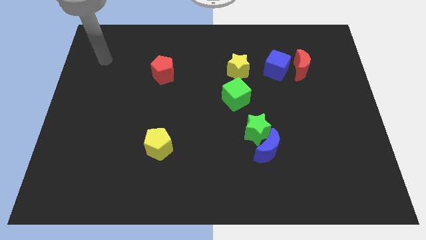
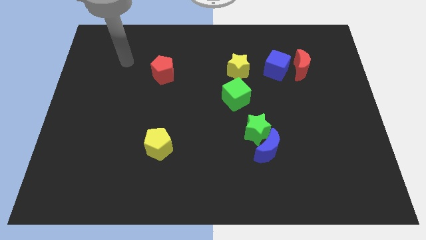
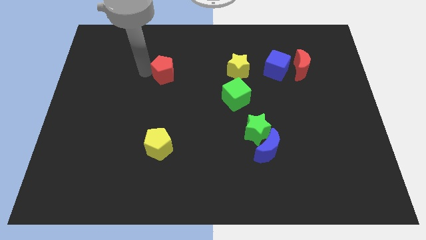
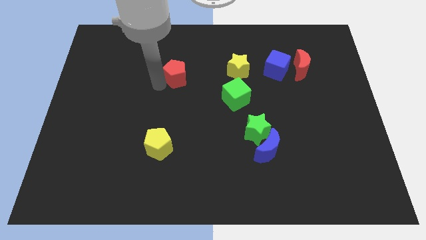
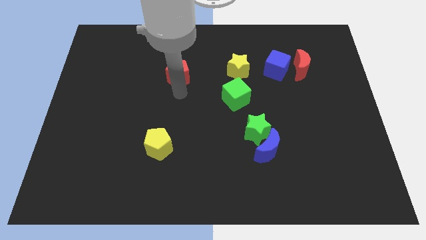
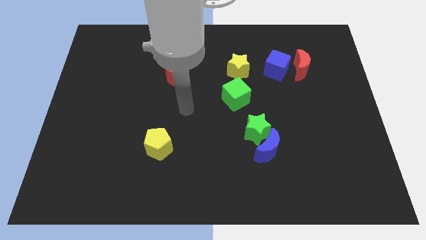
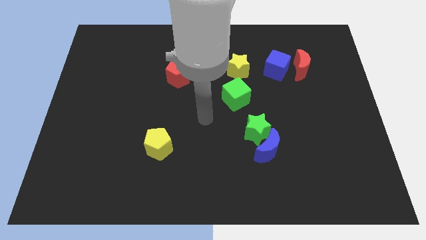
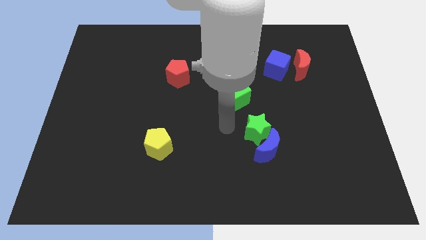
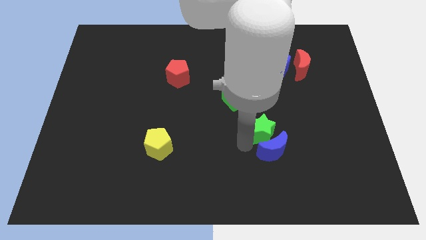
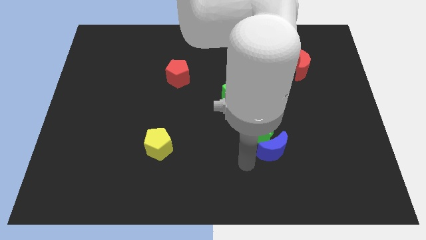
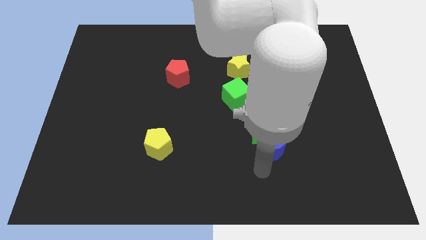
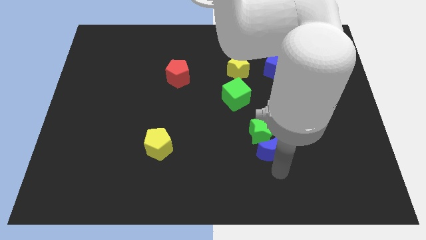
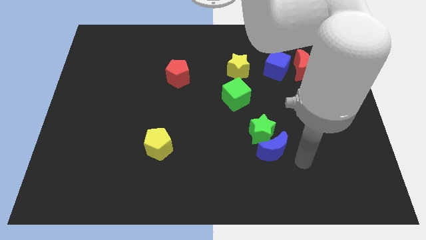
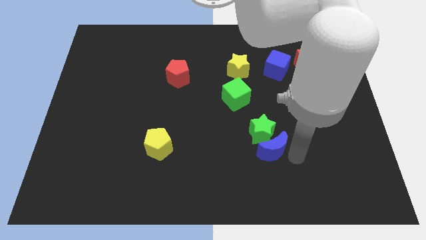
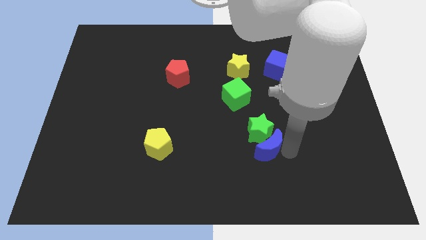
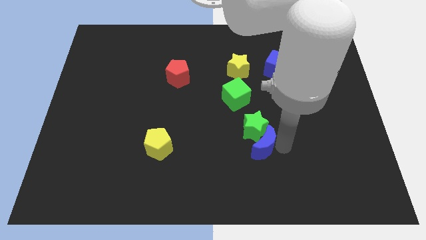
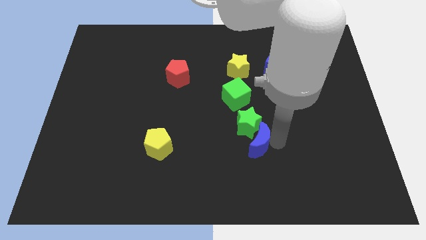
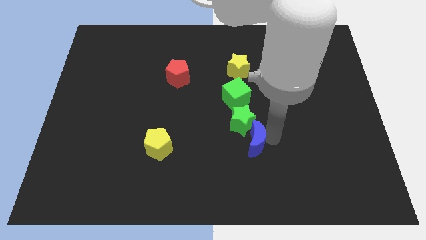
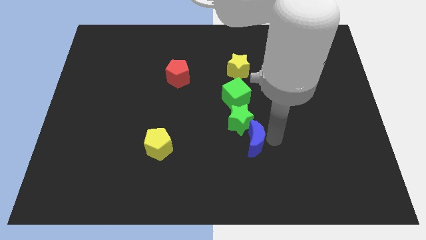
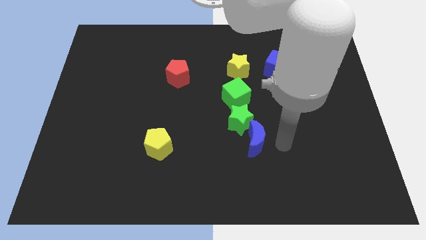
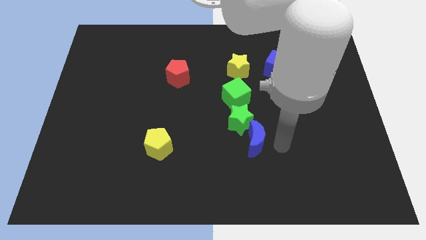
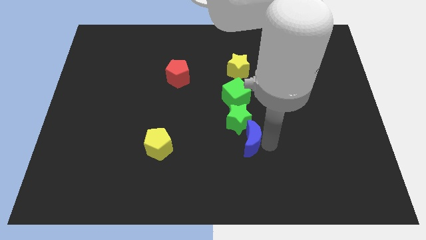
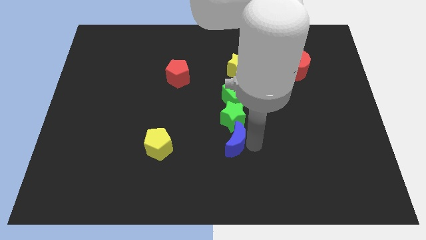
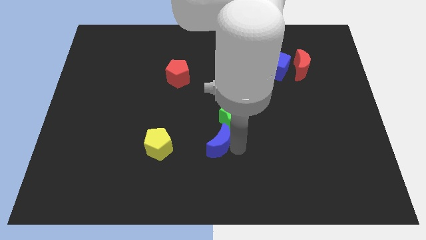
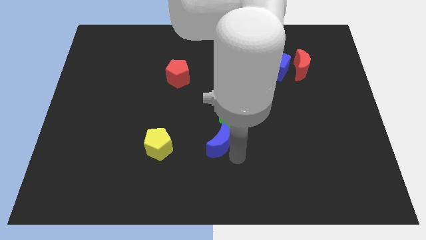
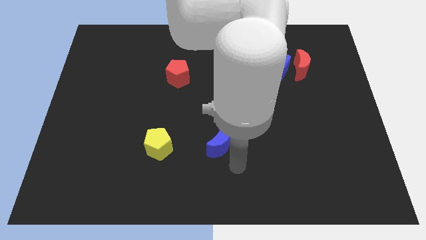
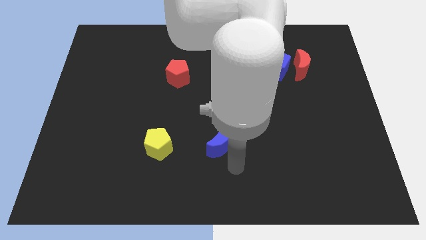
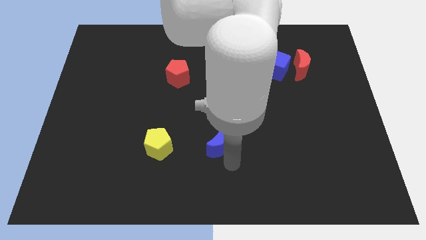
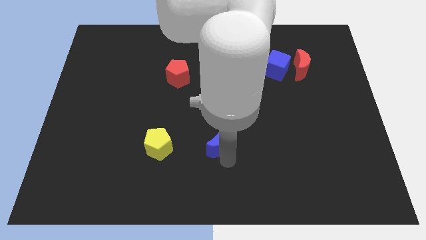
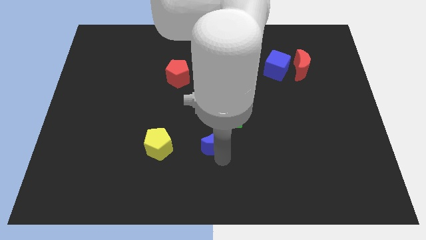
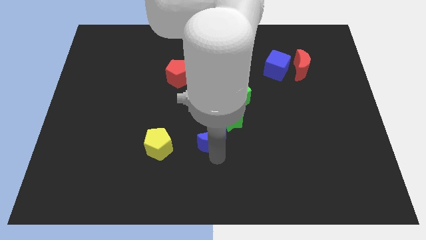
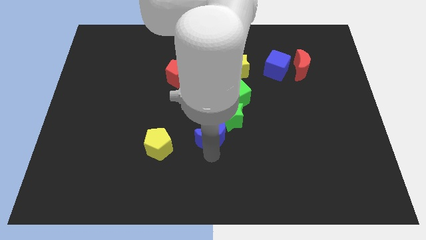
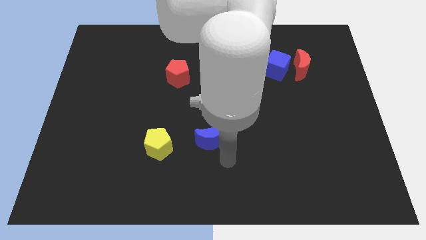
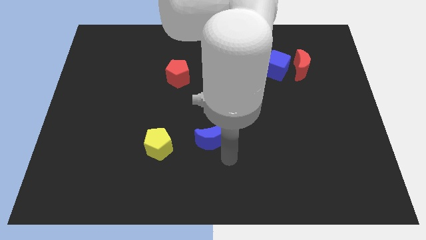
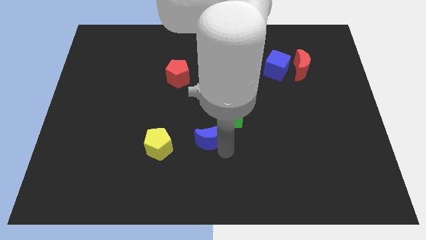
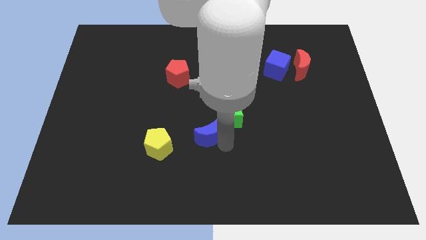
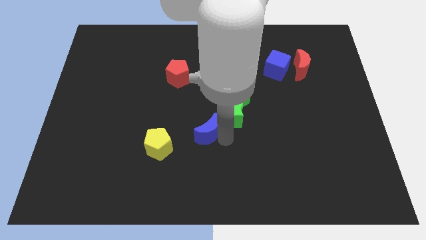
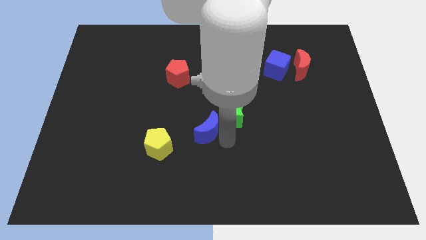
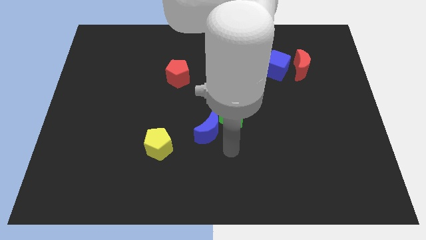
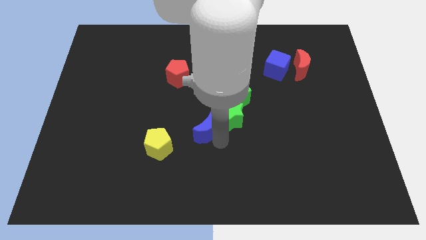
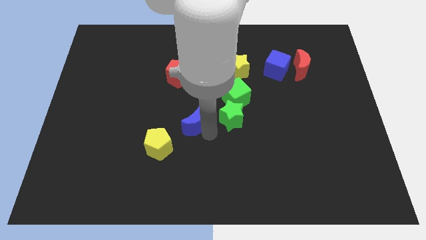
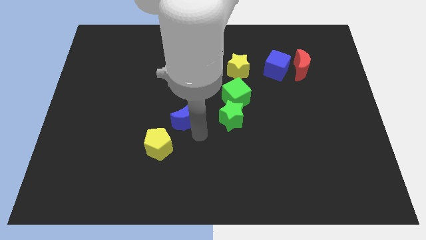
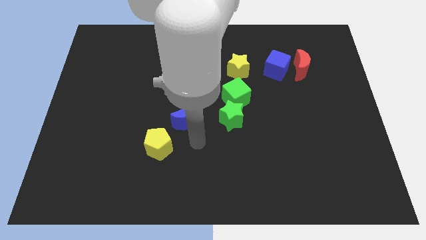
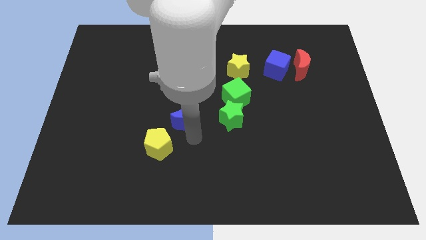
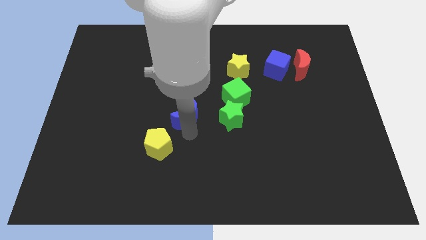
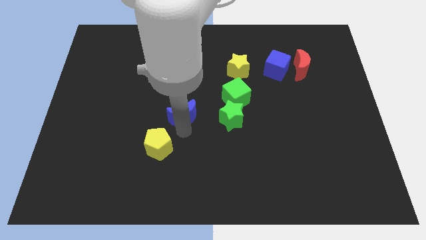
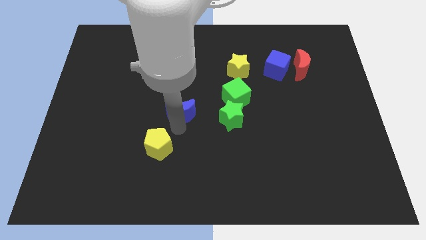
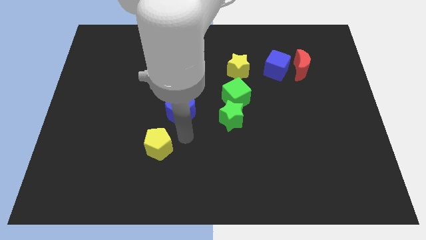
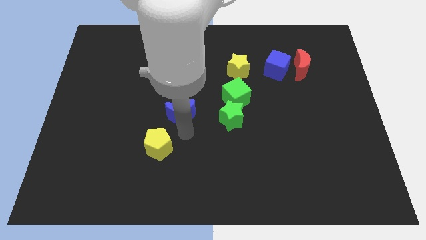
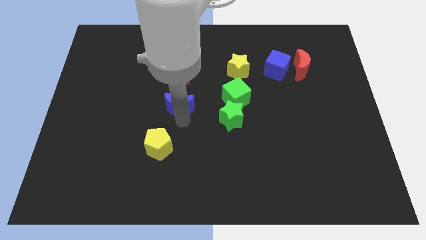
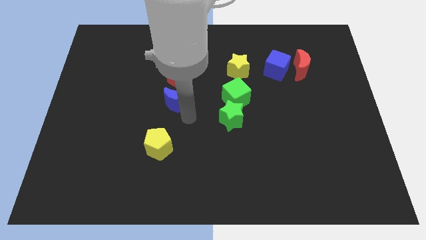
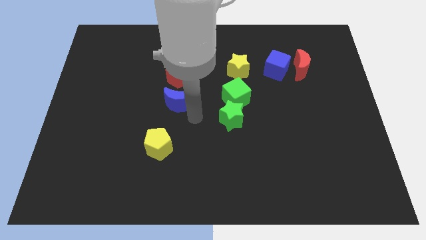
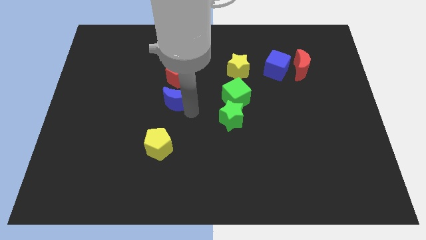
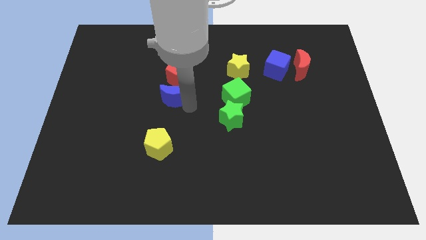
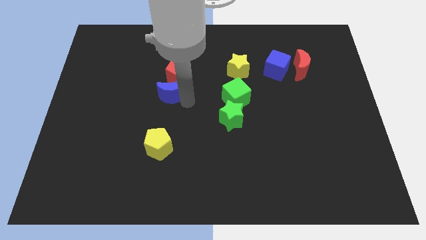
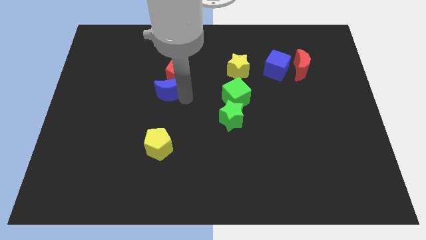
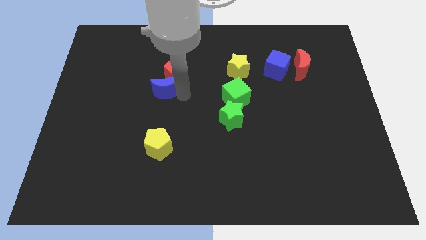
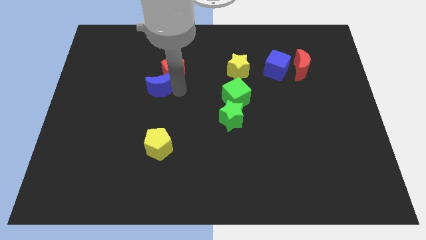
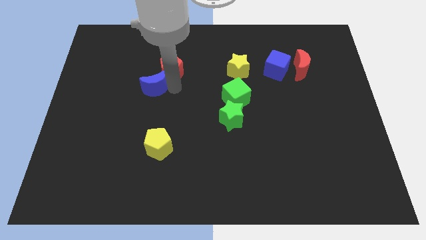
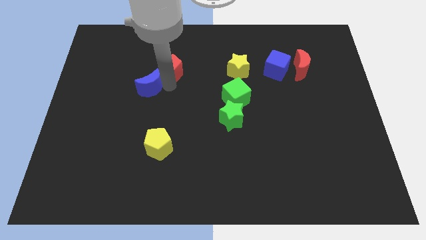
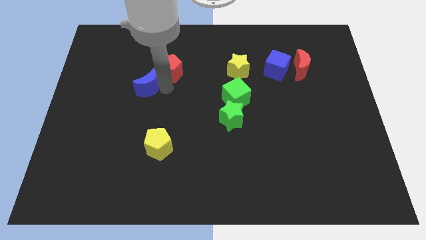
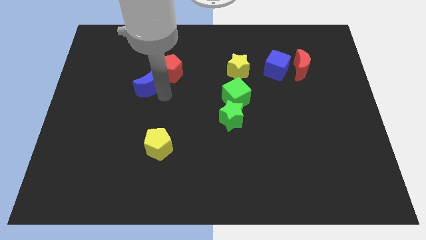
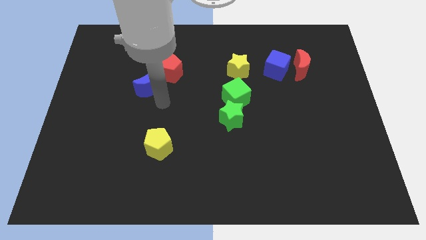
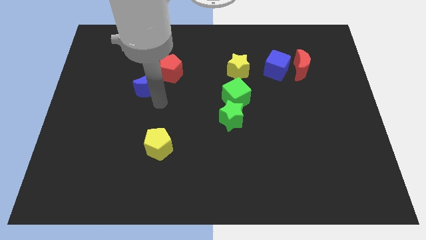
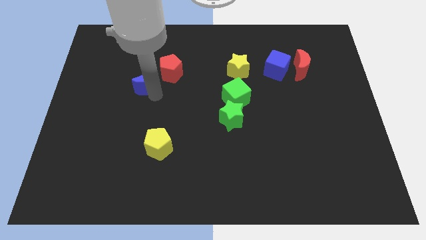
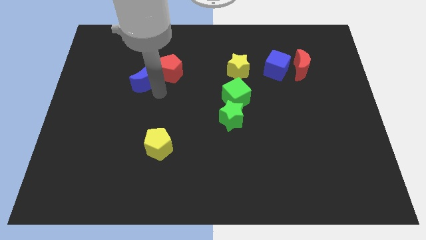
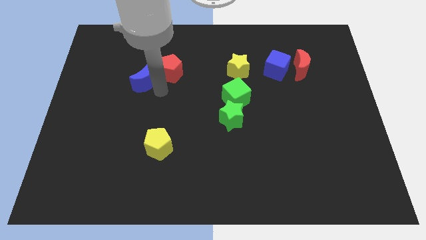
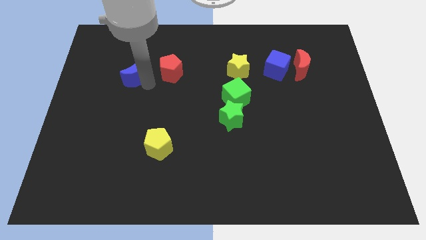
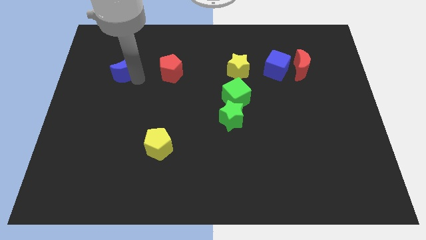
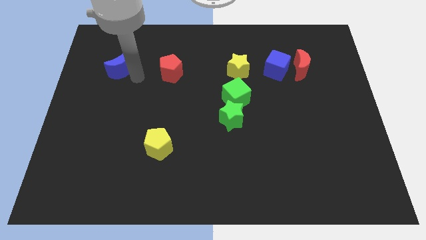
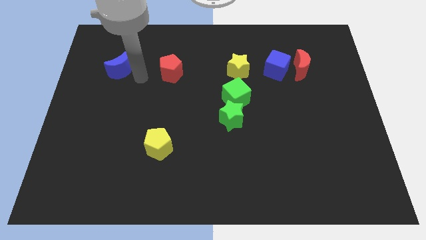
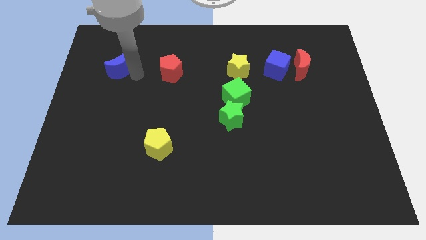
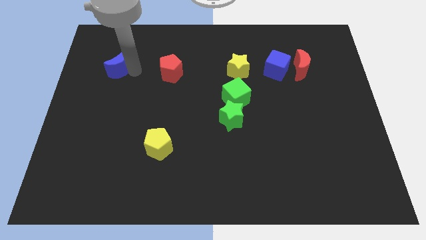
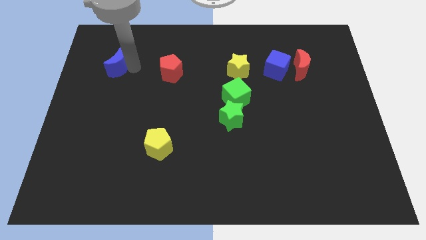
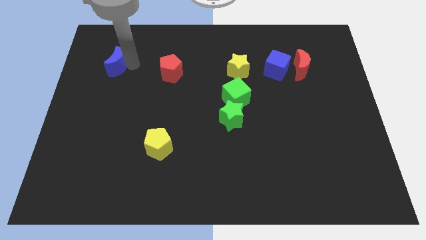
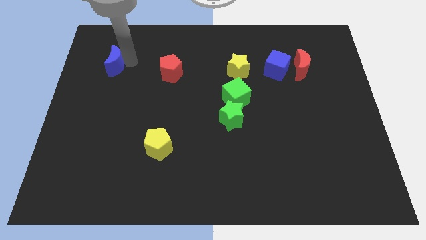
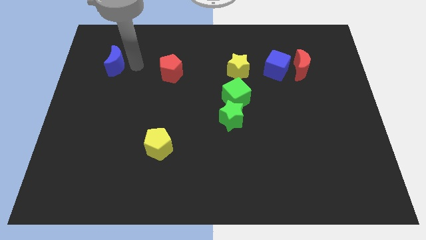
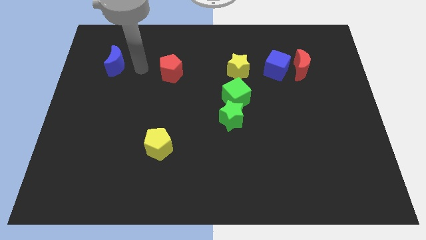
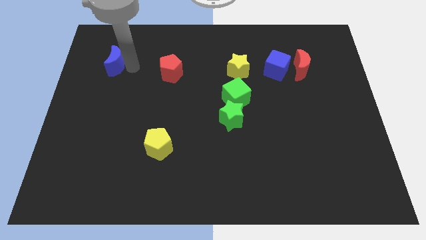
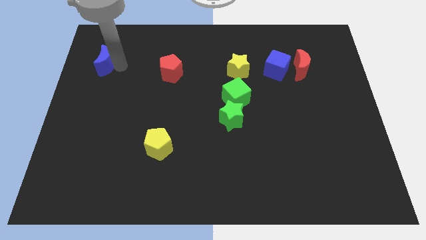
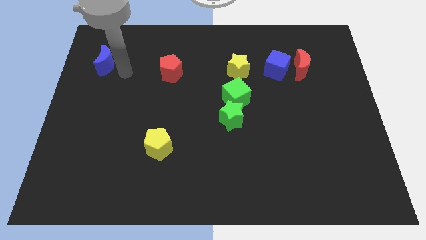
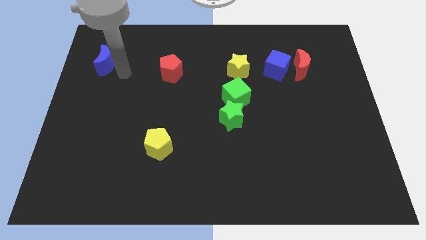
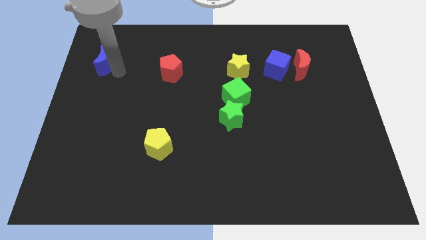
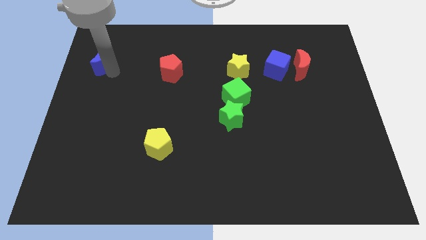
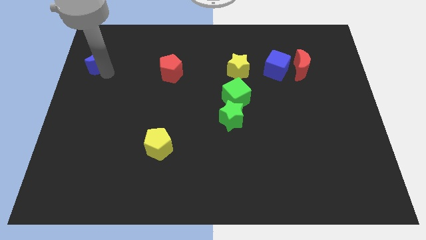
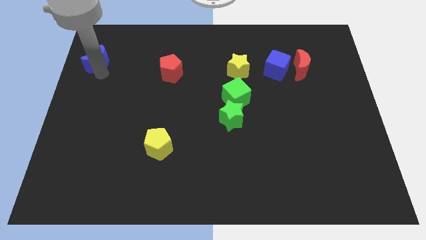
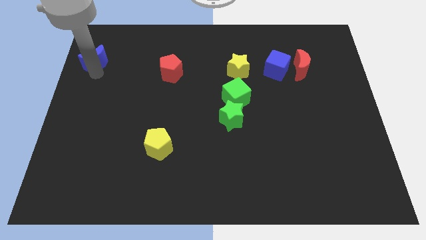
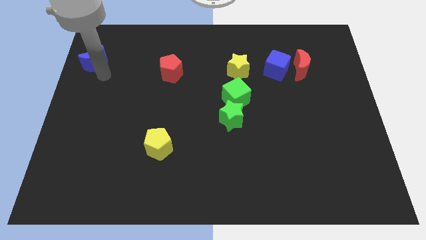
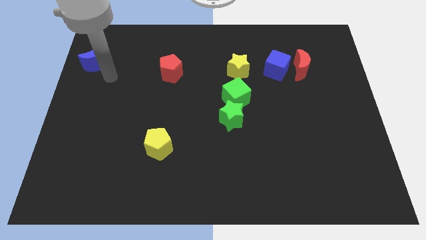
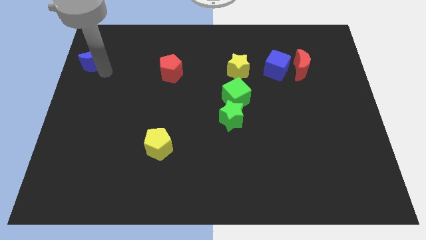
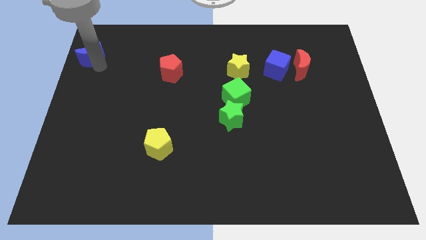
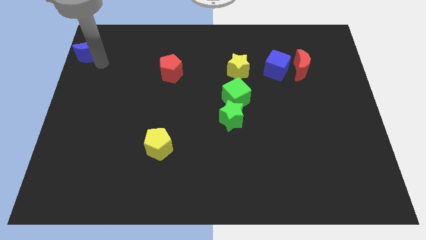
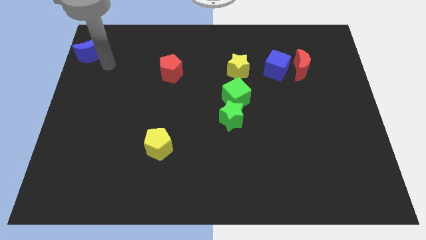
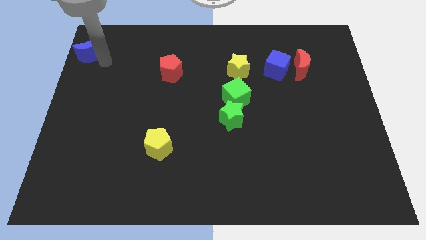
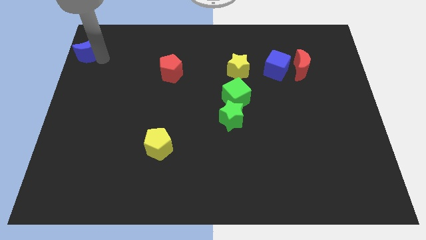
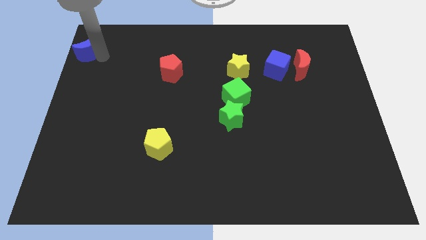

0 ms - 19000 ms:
put the blue moon to the top left of the board
